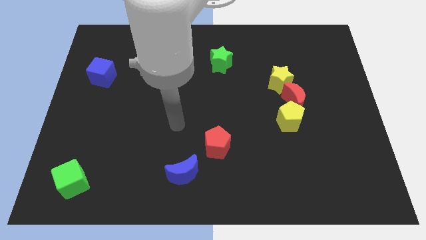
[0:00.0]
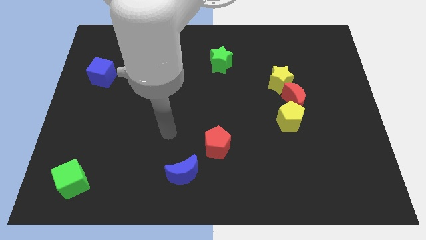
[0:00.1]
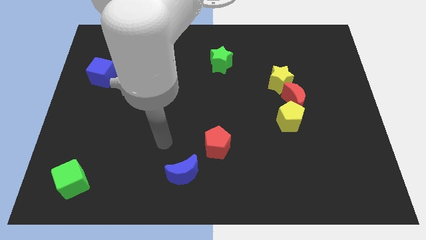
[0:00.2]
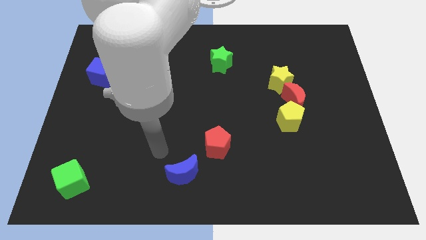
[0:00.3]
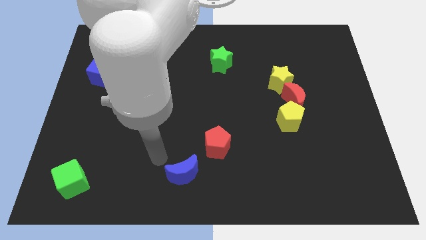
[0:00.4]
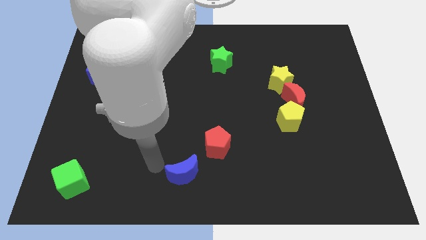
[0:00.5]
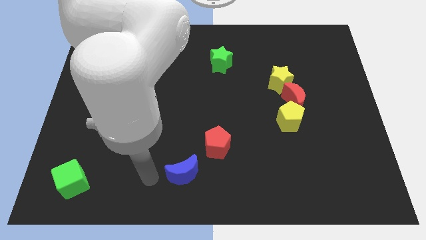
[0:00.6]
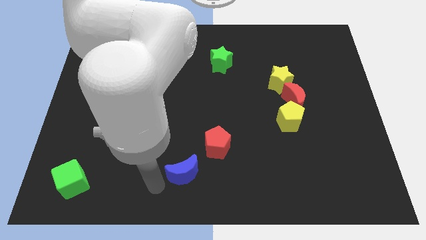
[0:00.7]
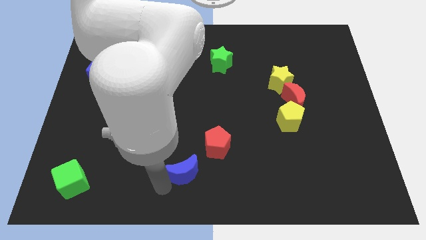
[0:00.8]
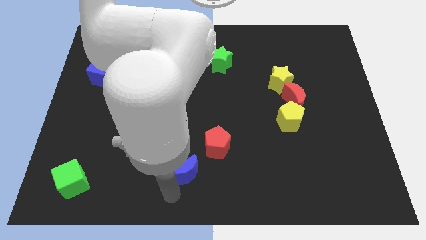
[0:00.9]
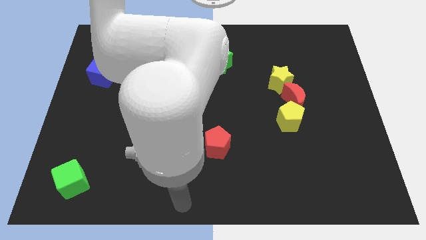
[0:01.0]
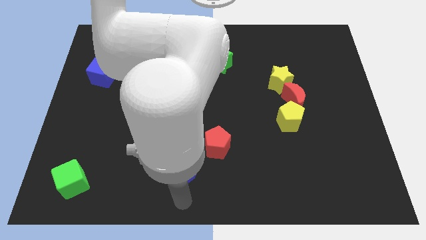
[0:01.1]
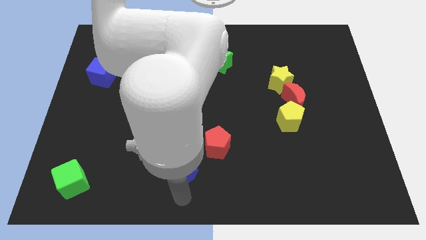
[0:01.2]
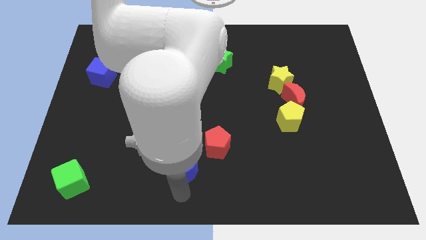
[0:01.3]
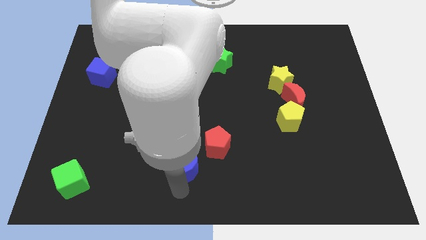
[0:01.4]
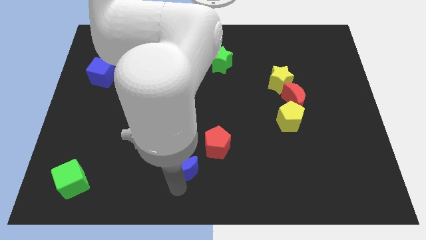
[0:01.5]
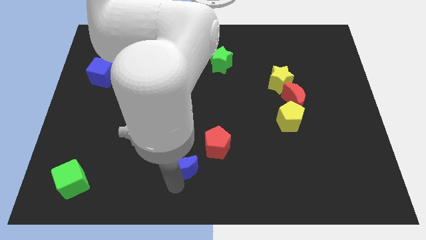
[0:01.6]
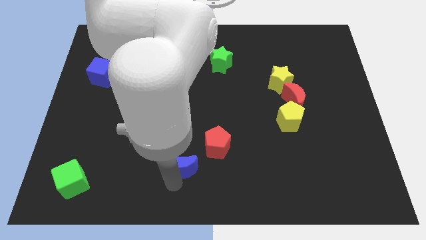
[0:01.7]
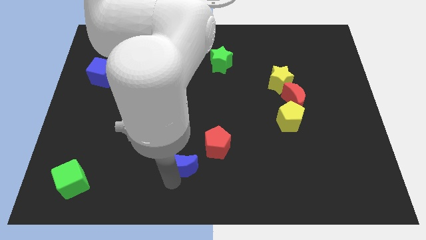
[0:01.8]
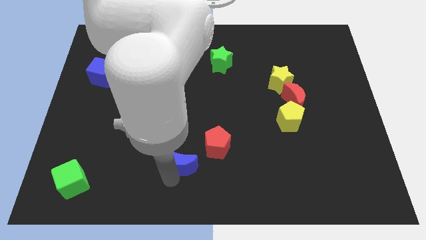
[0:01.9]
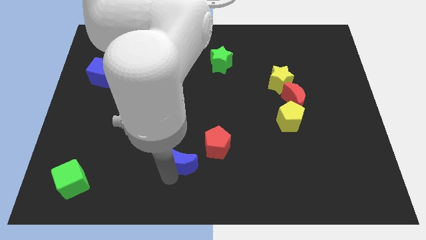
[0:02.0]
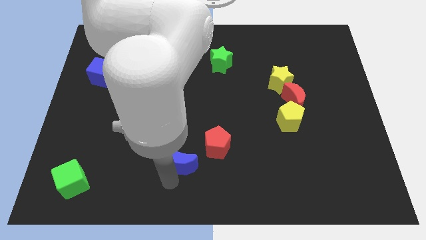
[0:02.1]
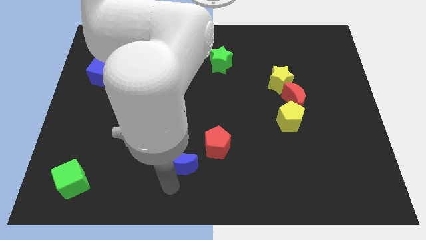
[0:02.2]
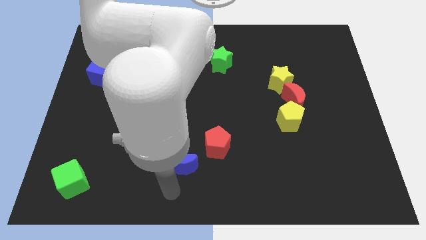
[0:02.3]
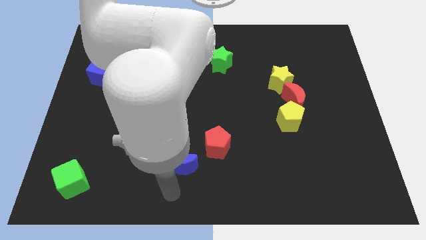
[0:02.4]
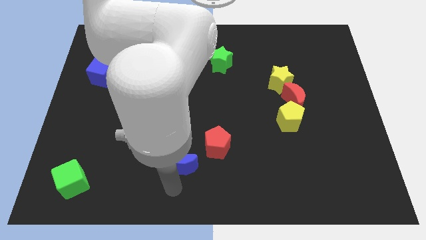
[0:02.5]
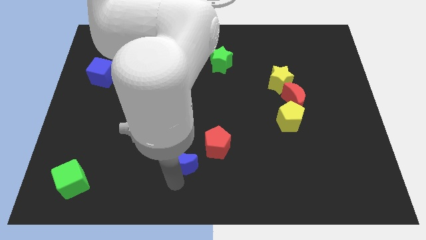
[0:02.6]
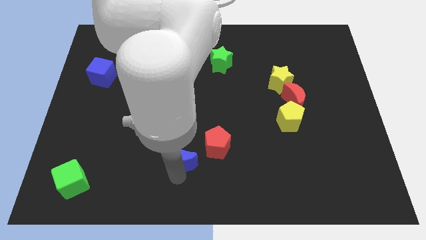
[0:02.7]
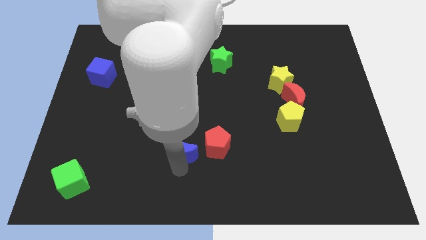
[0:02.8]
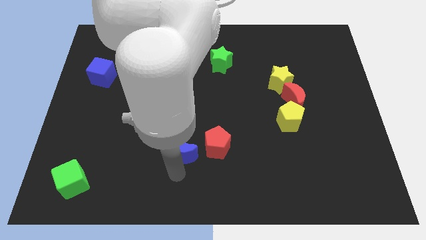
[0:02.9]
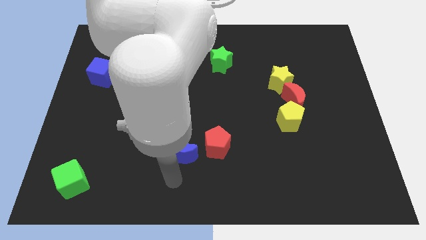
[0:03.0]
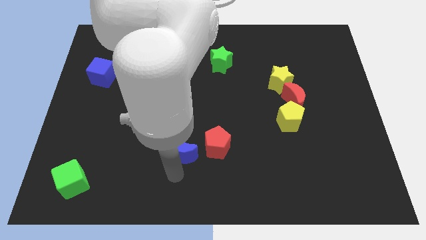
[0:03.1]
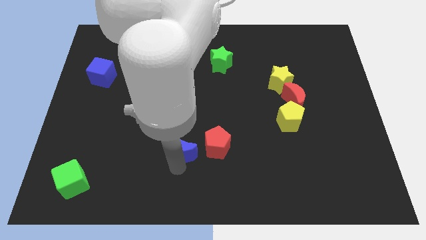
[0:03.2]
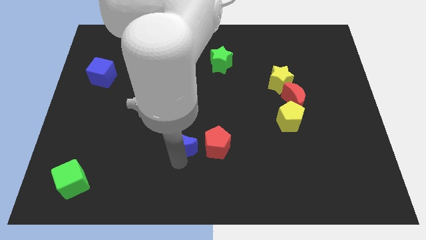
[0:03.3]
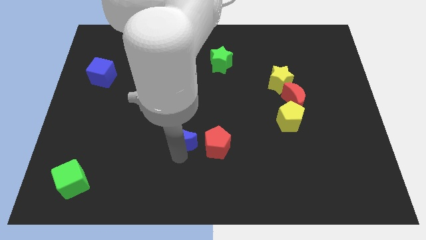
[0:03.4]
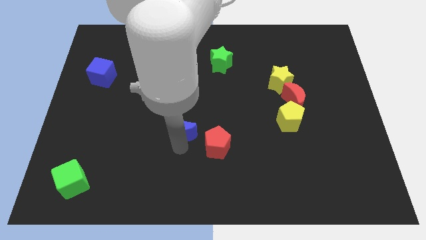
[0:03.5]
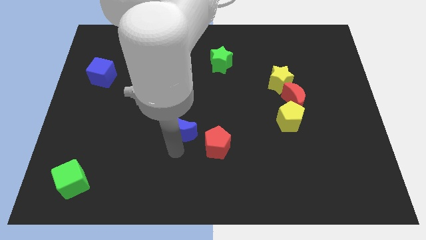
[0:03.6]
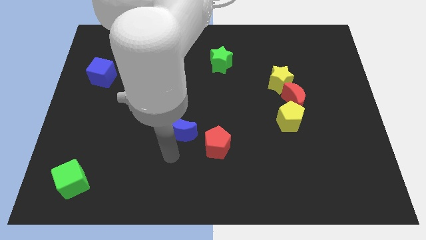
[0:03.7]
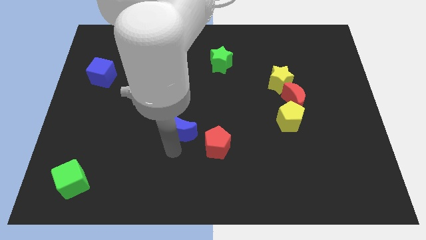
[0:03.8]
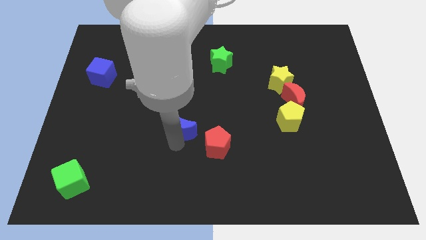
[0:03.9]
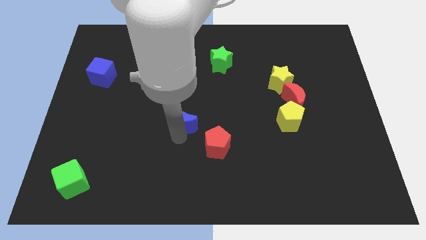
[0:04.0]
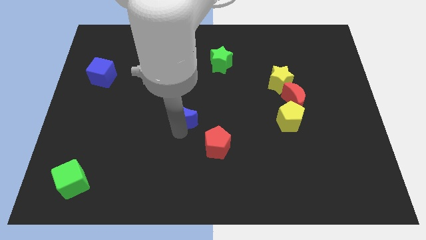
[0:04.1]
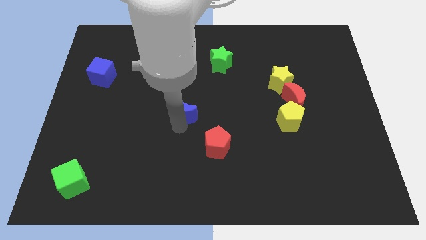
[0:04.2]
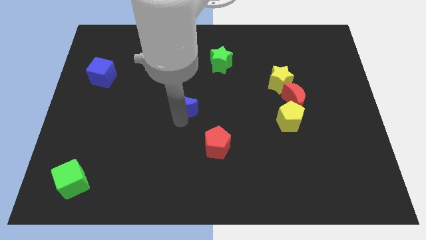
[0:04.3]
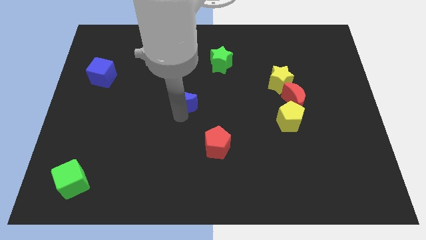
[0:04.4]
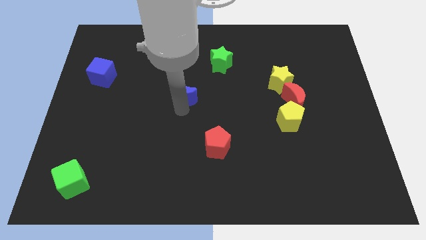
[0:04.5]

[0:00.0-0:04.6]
slide the blue moon up

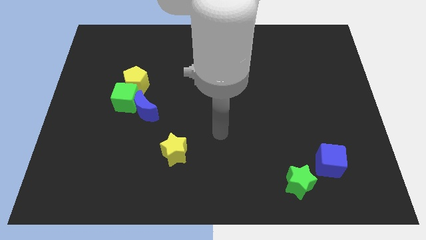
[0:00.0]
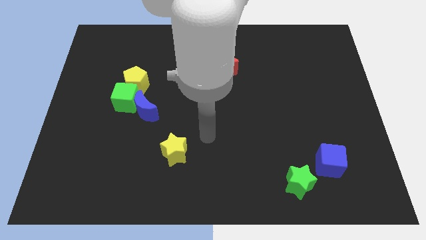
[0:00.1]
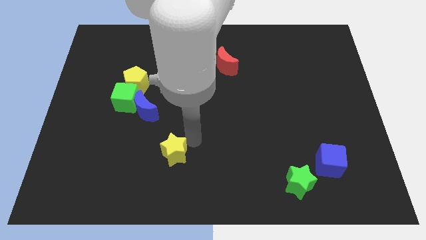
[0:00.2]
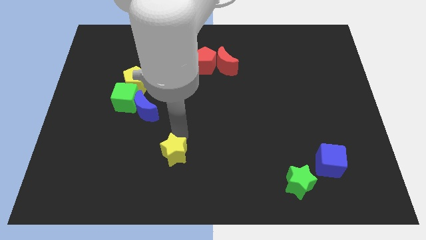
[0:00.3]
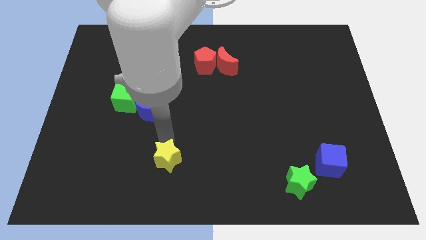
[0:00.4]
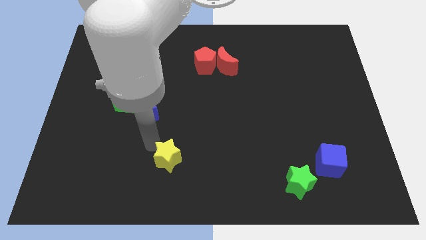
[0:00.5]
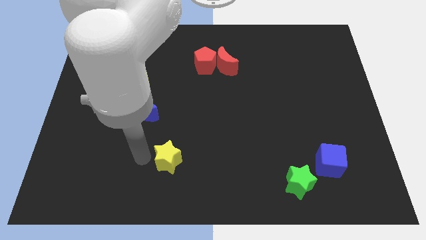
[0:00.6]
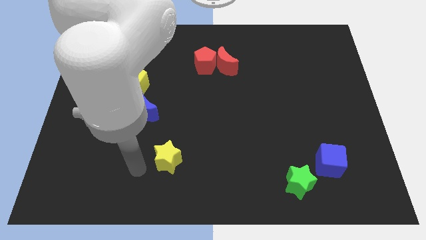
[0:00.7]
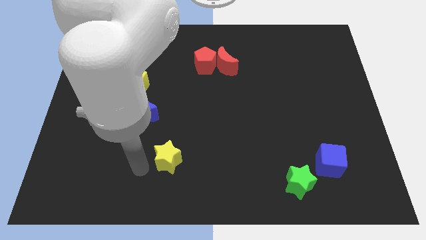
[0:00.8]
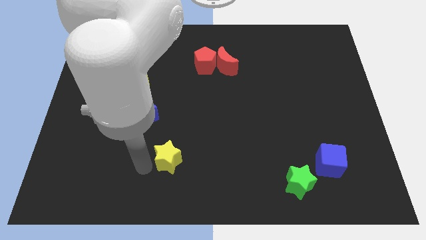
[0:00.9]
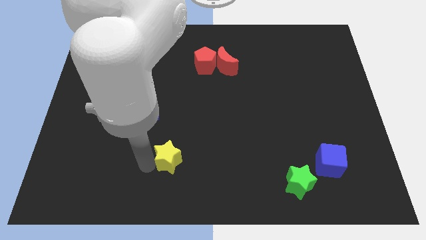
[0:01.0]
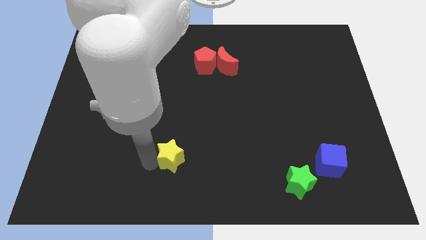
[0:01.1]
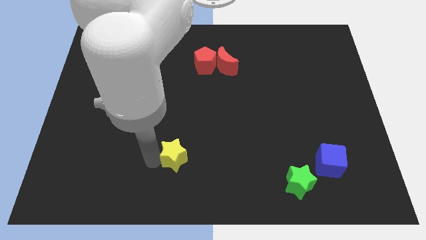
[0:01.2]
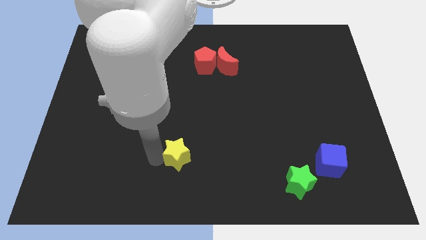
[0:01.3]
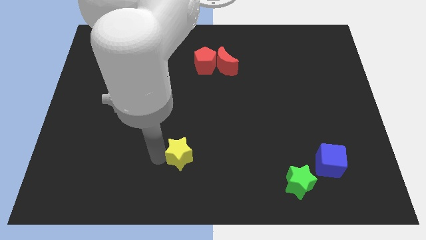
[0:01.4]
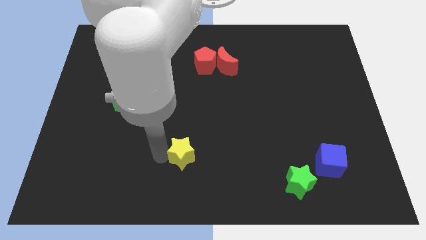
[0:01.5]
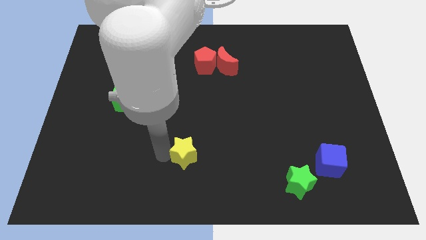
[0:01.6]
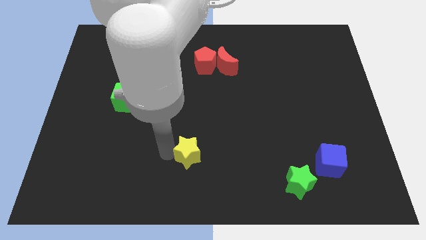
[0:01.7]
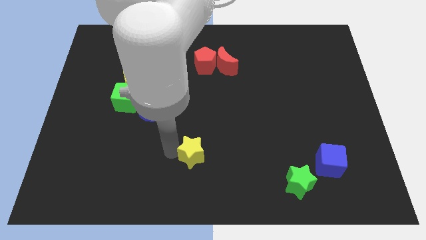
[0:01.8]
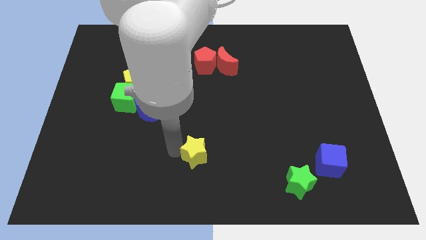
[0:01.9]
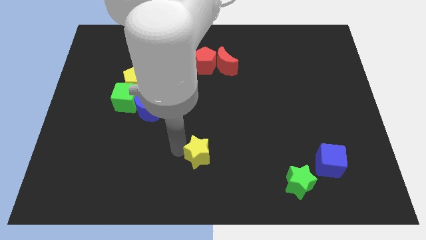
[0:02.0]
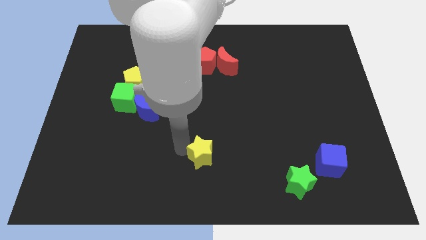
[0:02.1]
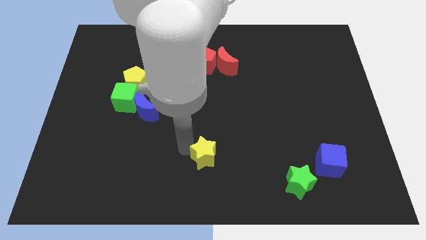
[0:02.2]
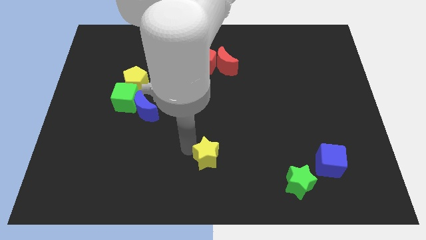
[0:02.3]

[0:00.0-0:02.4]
move the yellow star to the right somewhat

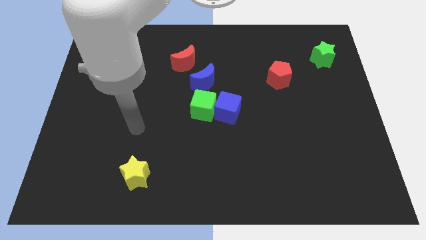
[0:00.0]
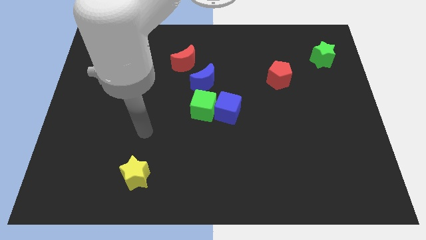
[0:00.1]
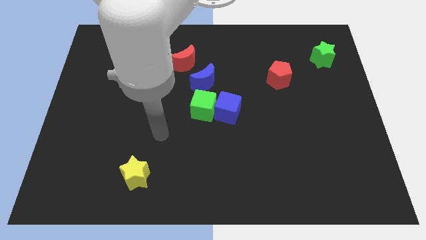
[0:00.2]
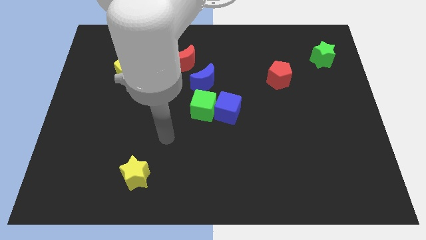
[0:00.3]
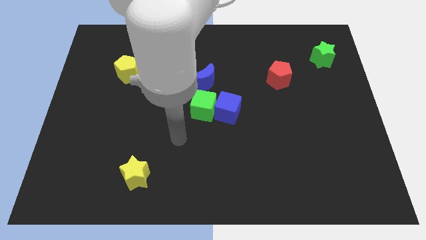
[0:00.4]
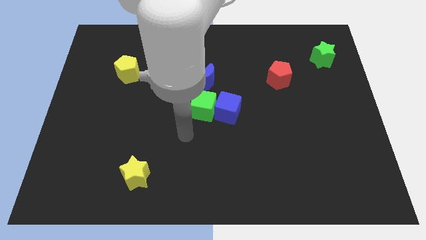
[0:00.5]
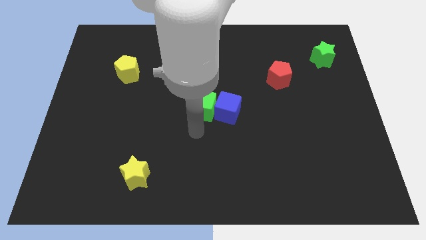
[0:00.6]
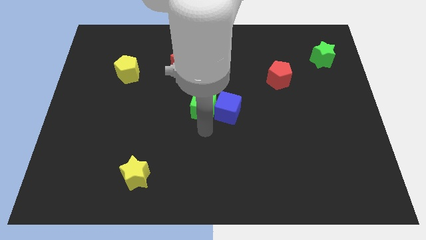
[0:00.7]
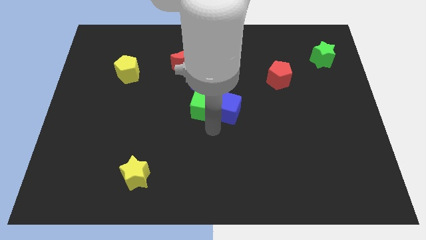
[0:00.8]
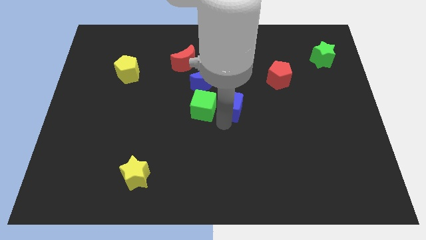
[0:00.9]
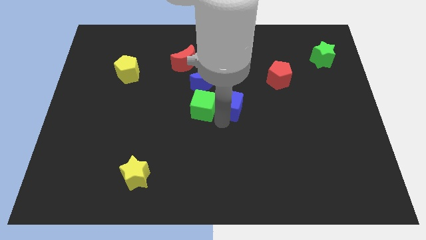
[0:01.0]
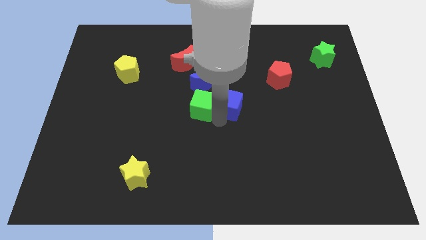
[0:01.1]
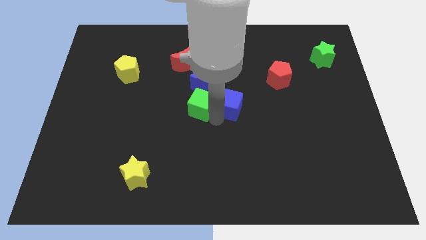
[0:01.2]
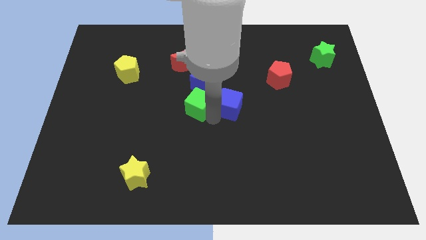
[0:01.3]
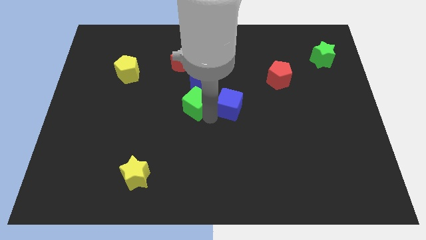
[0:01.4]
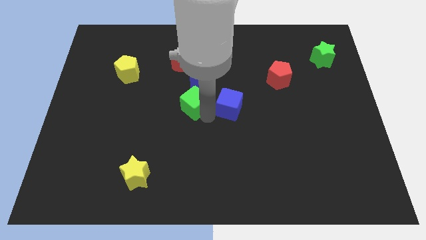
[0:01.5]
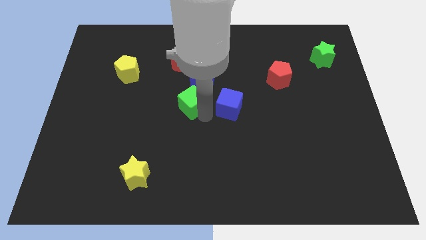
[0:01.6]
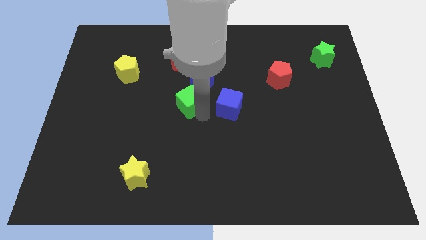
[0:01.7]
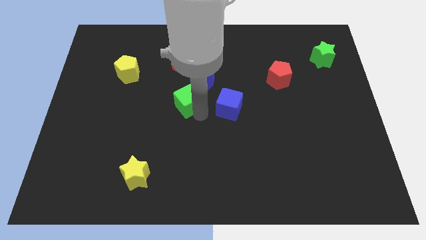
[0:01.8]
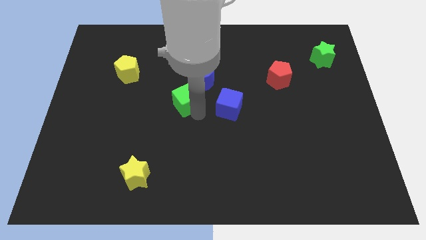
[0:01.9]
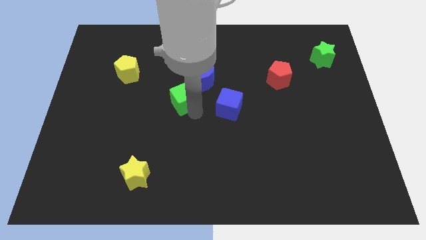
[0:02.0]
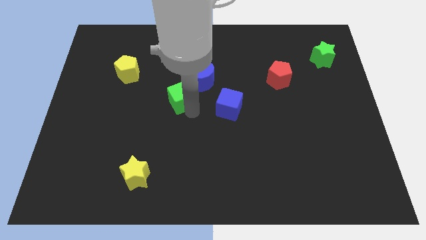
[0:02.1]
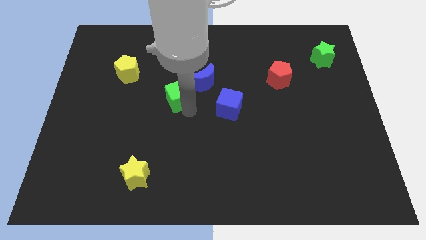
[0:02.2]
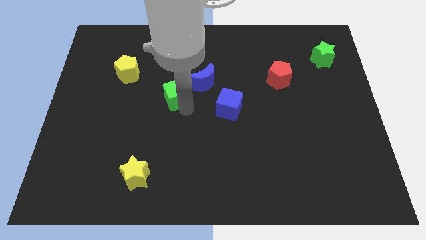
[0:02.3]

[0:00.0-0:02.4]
push the green cube a little upwards and to the left
